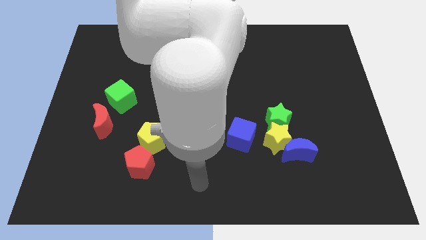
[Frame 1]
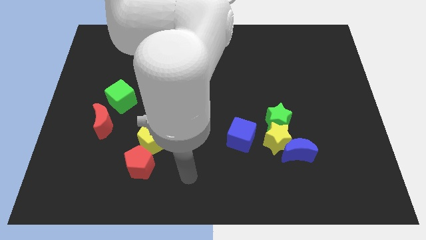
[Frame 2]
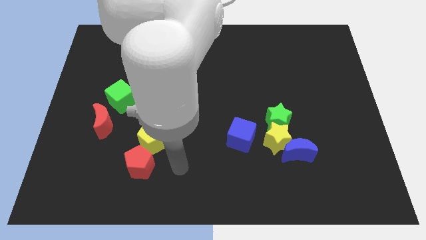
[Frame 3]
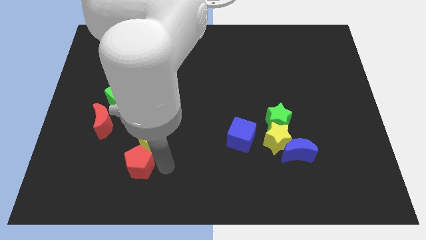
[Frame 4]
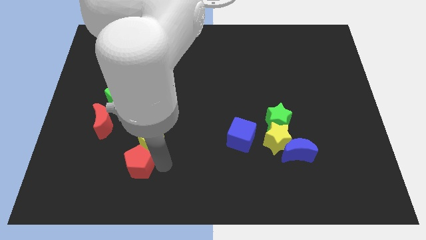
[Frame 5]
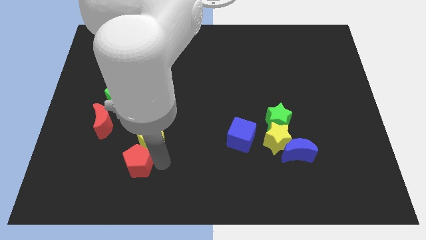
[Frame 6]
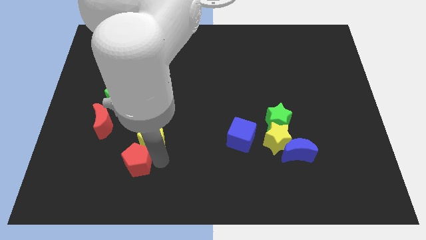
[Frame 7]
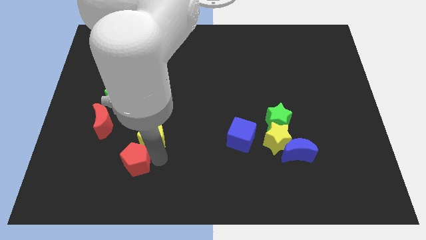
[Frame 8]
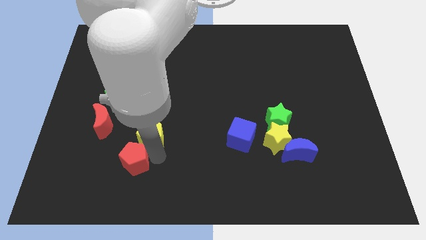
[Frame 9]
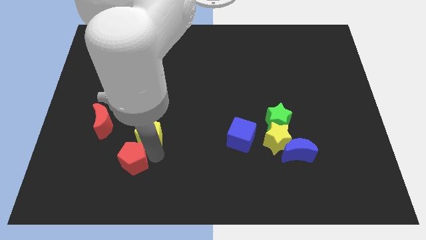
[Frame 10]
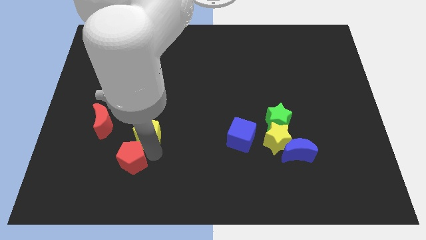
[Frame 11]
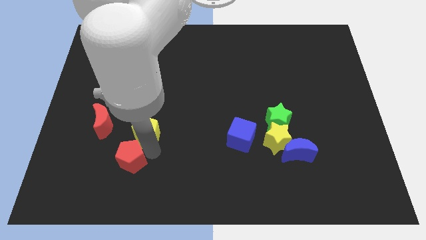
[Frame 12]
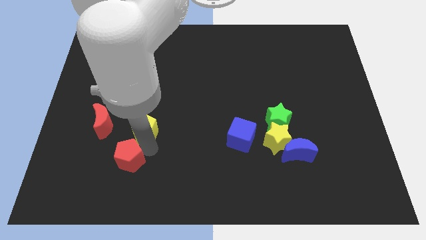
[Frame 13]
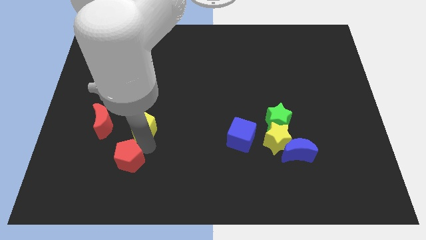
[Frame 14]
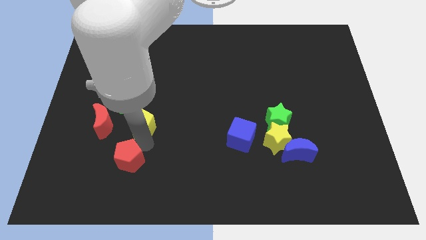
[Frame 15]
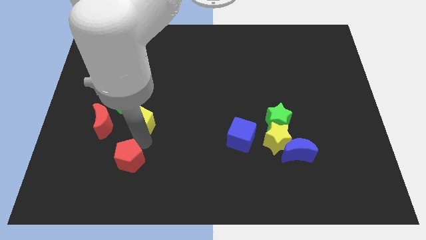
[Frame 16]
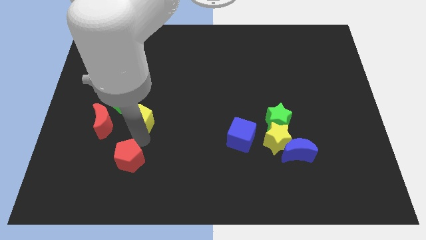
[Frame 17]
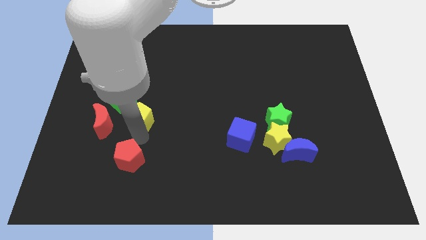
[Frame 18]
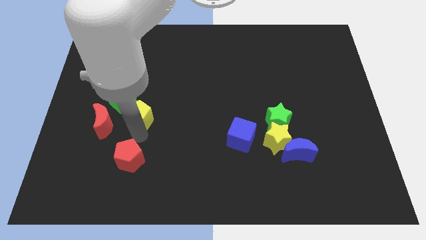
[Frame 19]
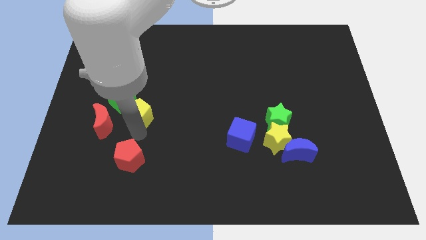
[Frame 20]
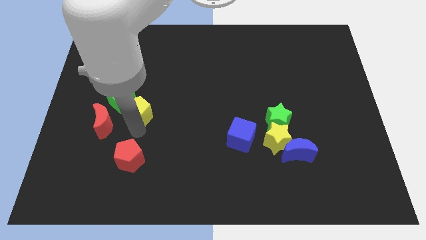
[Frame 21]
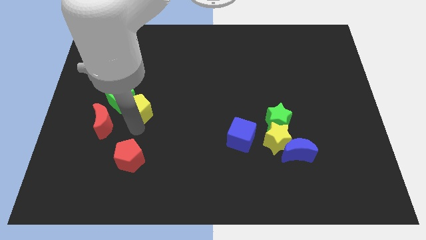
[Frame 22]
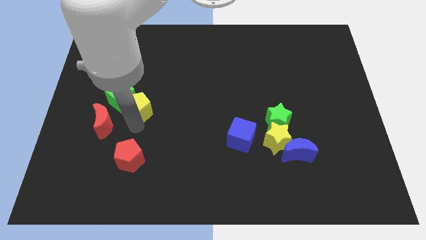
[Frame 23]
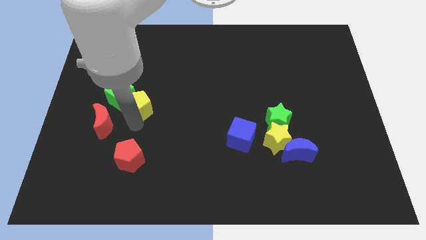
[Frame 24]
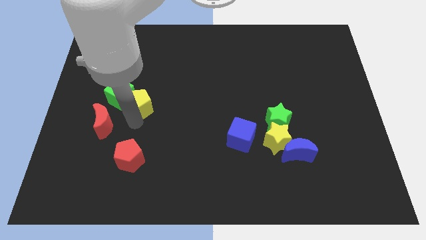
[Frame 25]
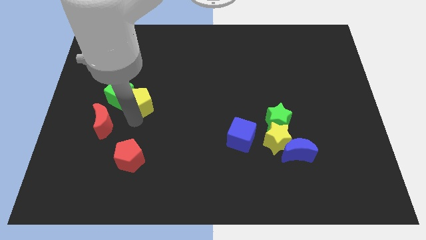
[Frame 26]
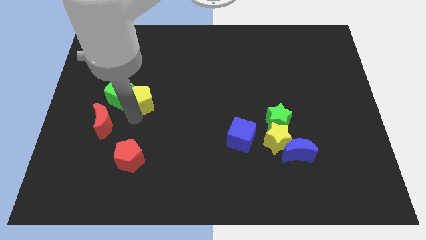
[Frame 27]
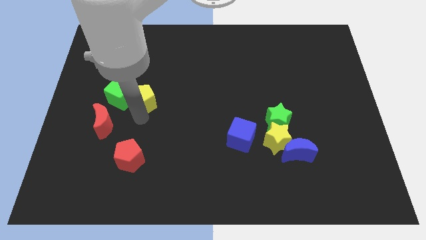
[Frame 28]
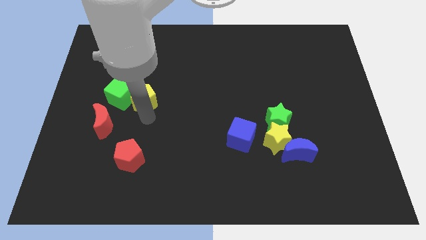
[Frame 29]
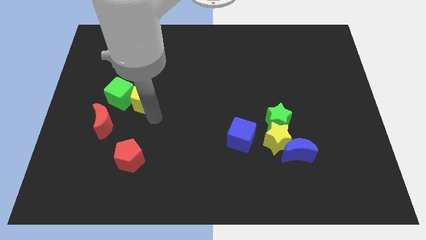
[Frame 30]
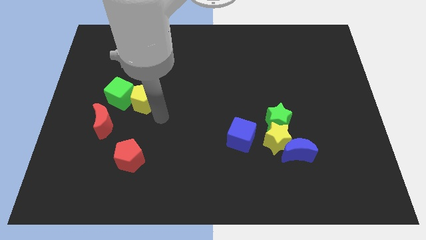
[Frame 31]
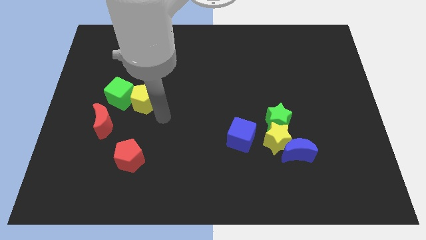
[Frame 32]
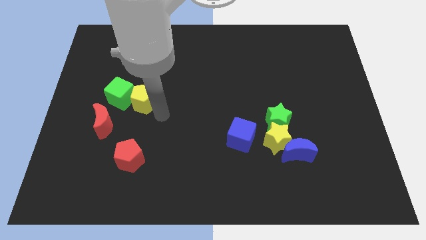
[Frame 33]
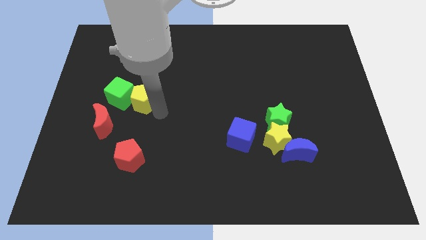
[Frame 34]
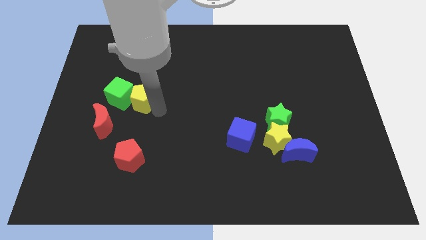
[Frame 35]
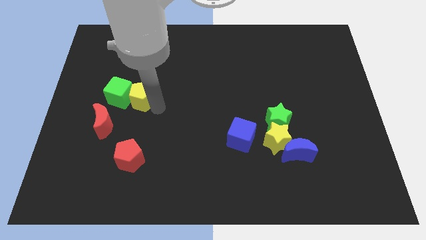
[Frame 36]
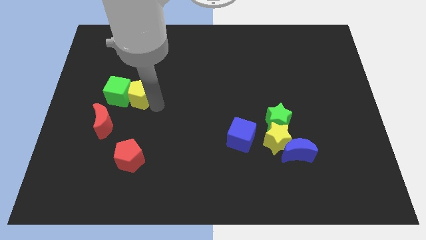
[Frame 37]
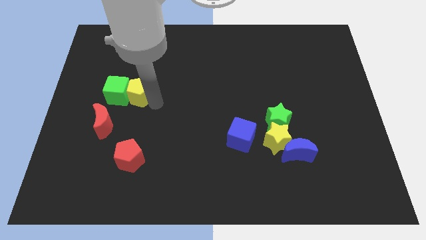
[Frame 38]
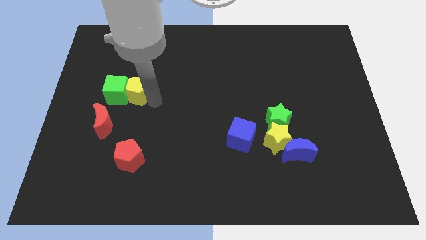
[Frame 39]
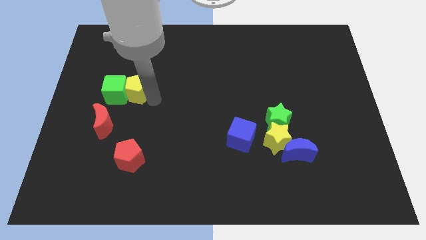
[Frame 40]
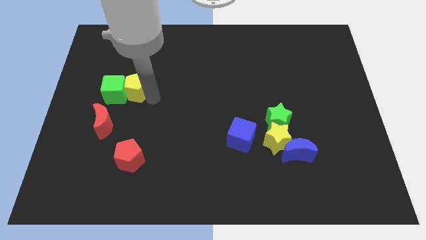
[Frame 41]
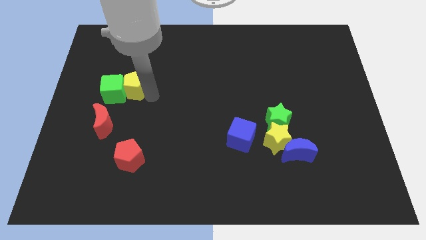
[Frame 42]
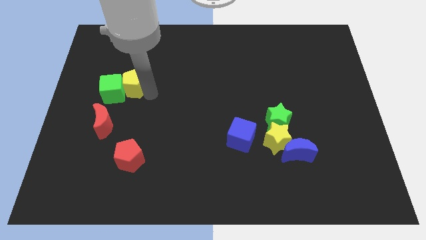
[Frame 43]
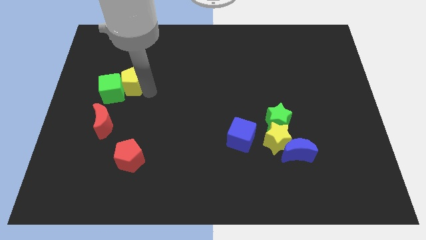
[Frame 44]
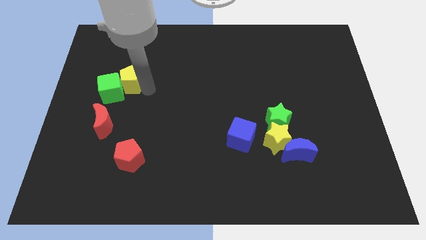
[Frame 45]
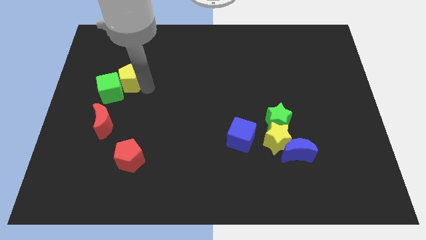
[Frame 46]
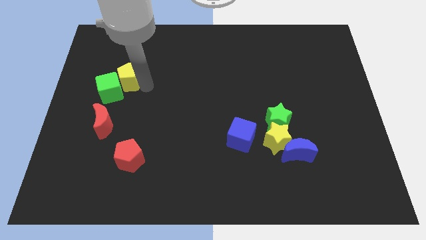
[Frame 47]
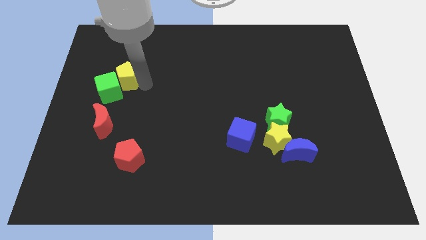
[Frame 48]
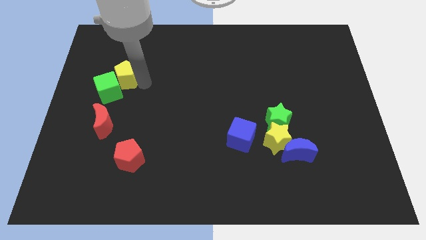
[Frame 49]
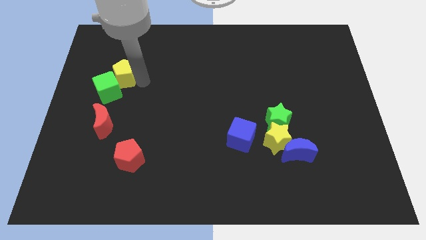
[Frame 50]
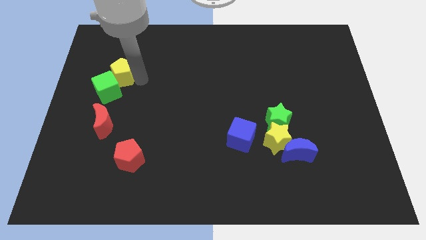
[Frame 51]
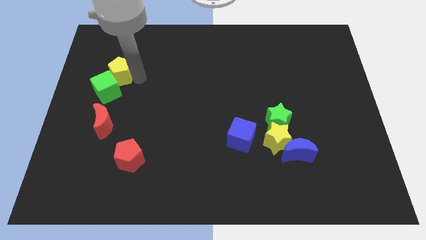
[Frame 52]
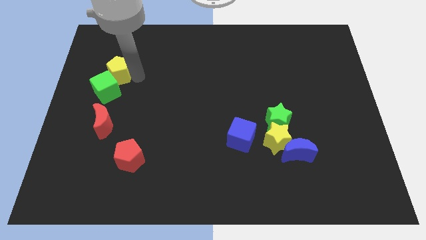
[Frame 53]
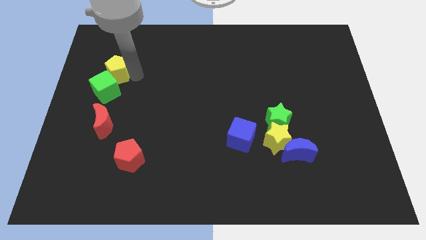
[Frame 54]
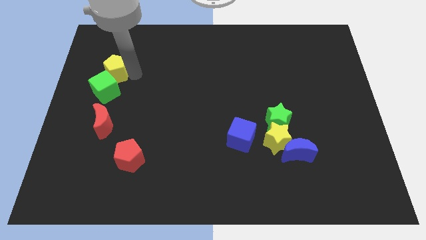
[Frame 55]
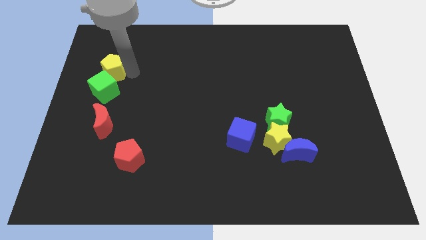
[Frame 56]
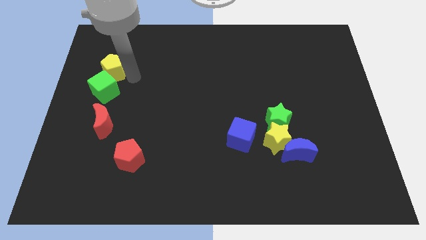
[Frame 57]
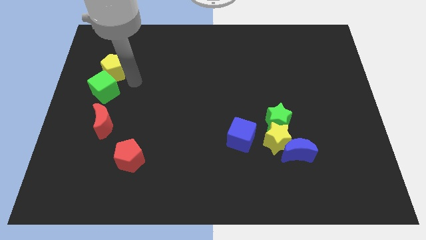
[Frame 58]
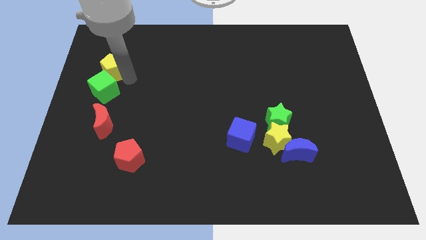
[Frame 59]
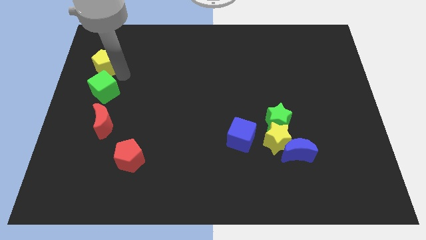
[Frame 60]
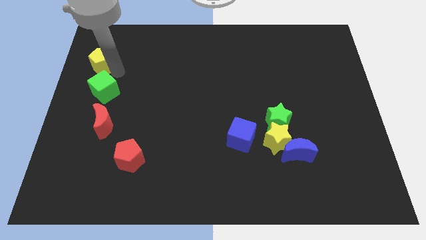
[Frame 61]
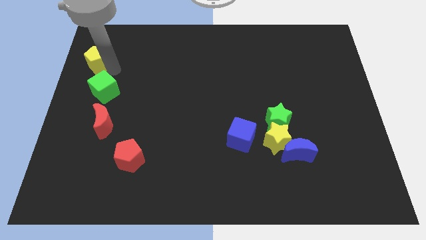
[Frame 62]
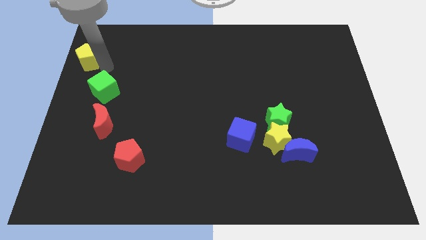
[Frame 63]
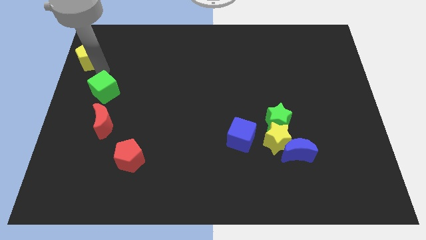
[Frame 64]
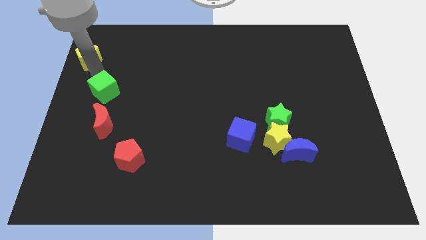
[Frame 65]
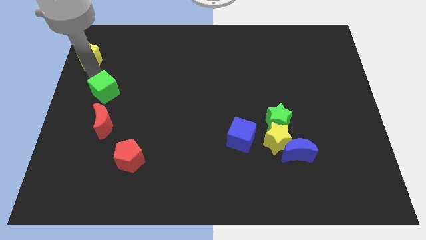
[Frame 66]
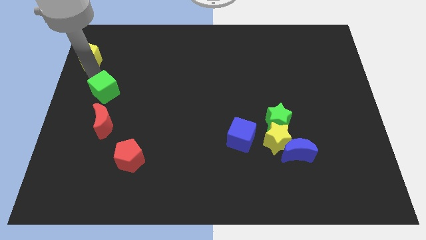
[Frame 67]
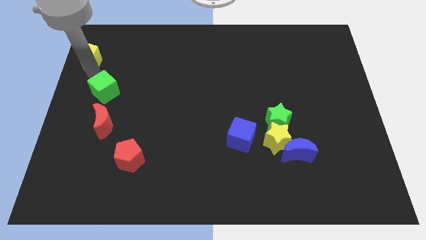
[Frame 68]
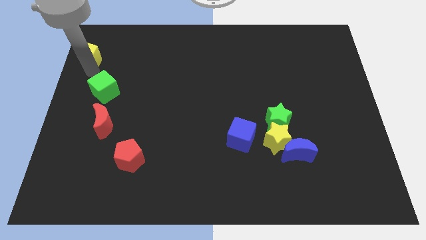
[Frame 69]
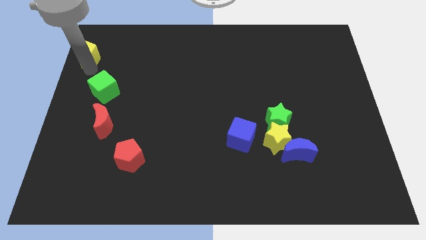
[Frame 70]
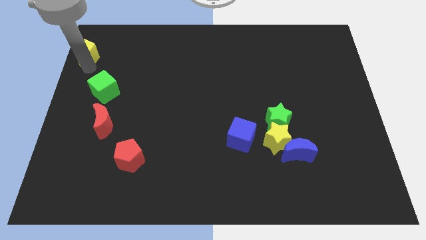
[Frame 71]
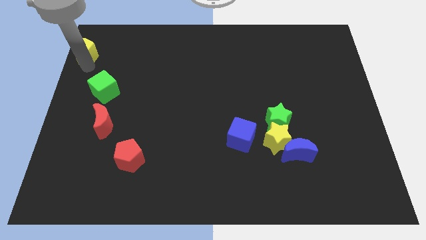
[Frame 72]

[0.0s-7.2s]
put the yellow pentagon to the top left of the board
